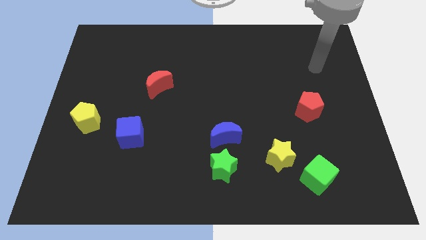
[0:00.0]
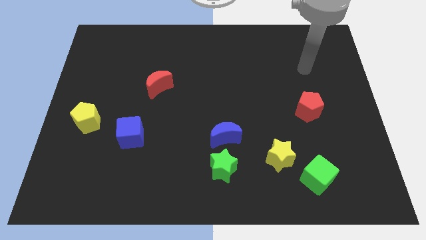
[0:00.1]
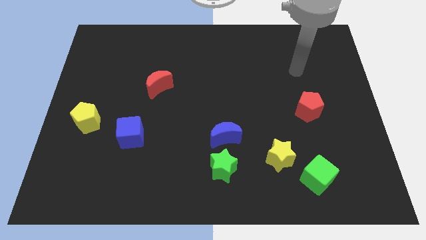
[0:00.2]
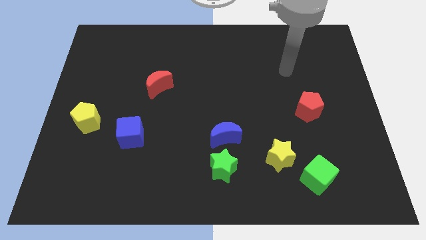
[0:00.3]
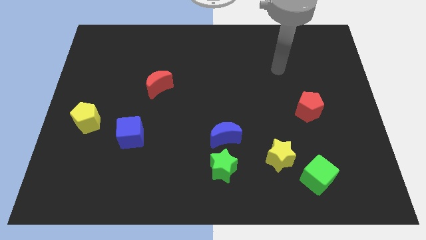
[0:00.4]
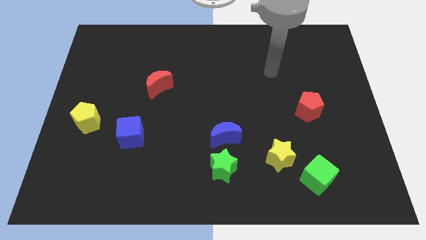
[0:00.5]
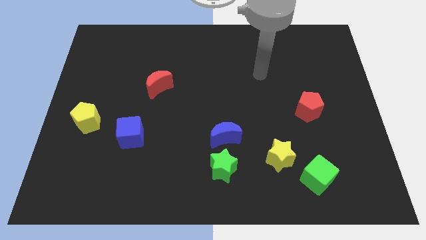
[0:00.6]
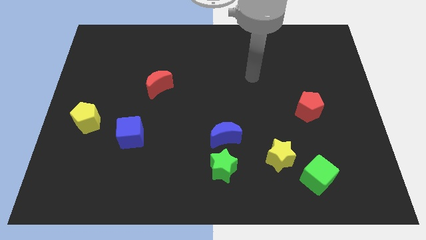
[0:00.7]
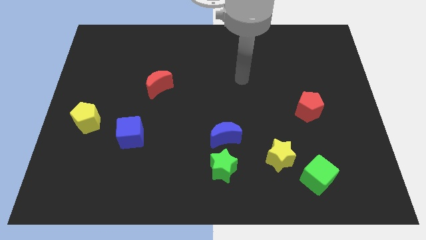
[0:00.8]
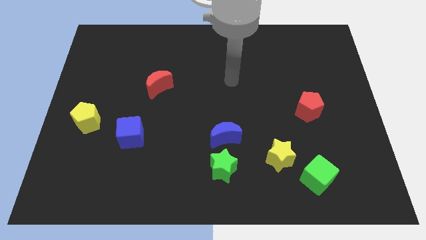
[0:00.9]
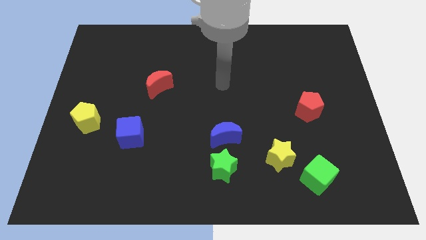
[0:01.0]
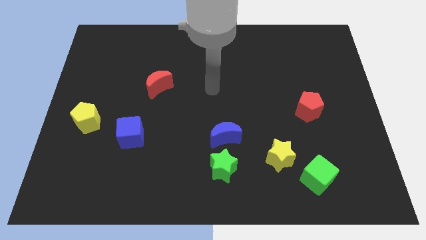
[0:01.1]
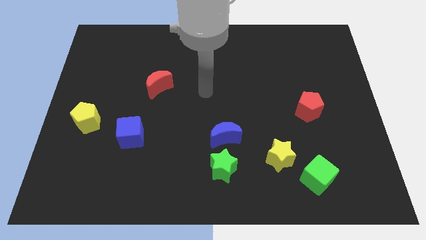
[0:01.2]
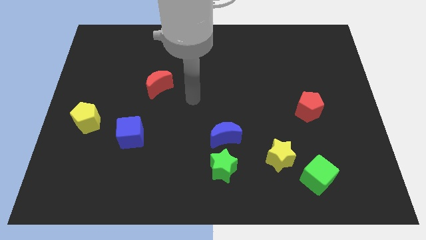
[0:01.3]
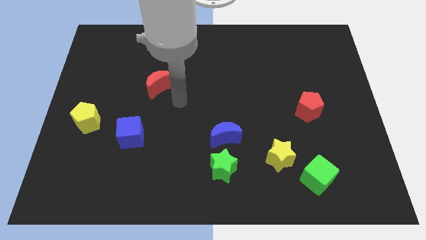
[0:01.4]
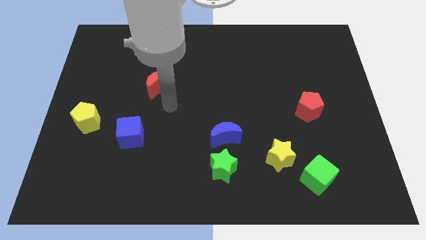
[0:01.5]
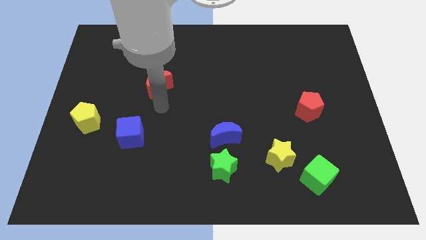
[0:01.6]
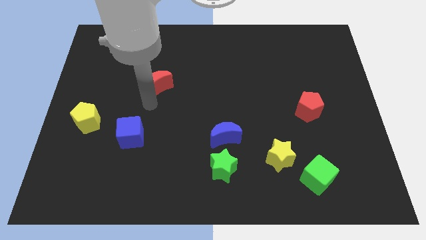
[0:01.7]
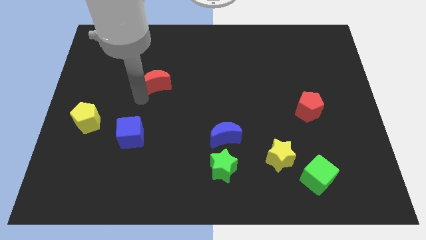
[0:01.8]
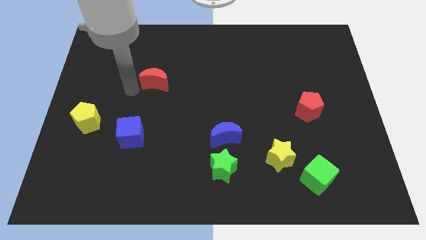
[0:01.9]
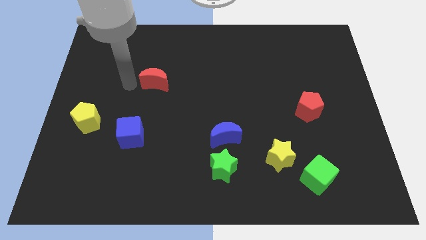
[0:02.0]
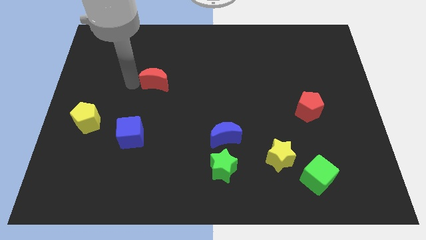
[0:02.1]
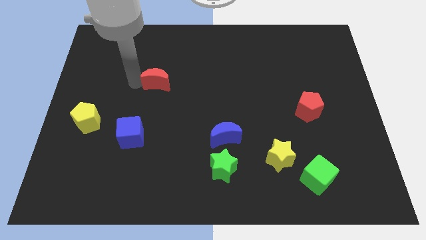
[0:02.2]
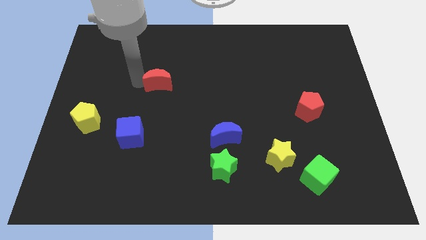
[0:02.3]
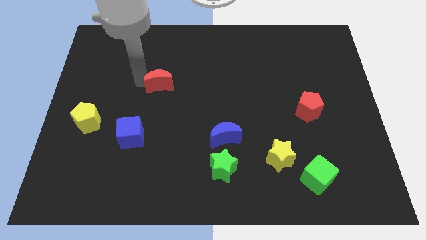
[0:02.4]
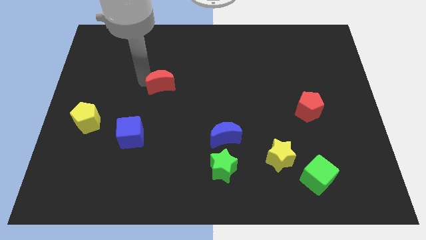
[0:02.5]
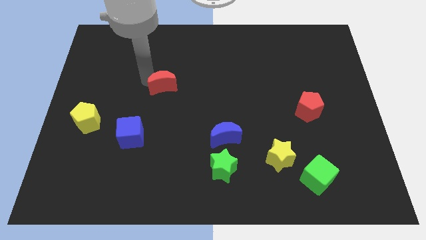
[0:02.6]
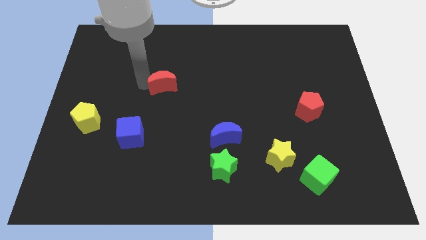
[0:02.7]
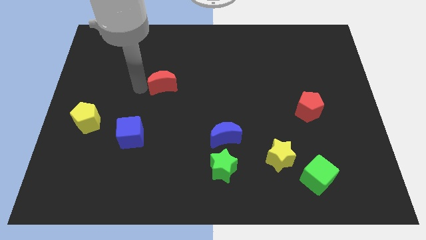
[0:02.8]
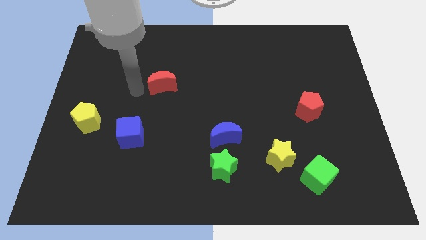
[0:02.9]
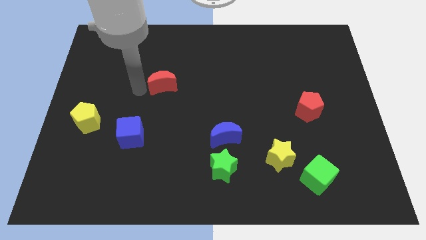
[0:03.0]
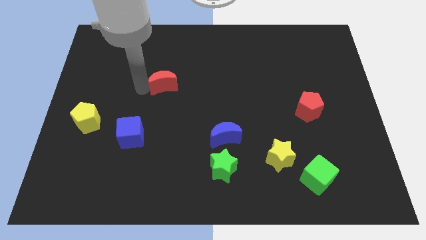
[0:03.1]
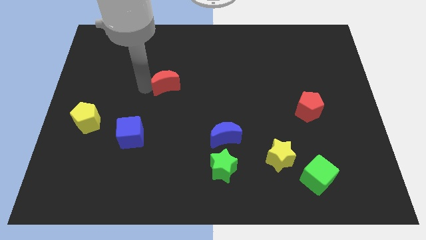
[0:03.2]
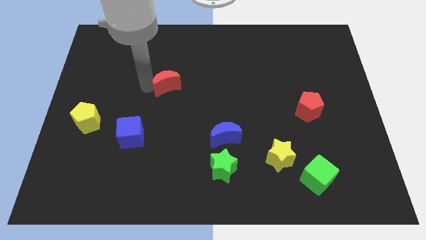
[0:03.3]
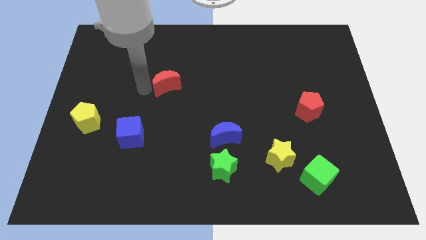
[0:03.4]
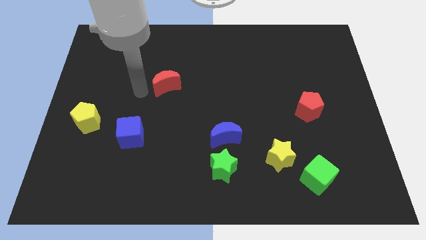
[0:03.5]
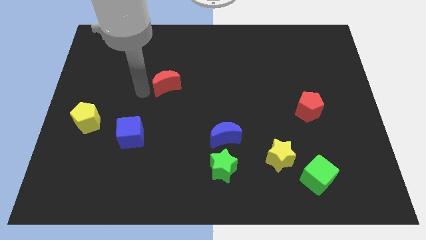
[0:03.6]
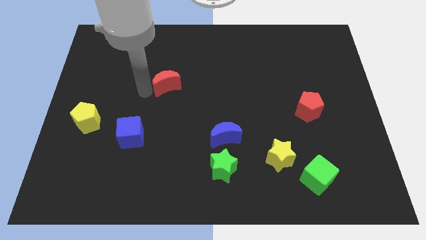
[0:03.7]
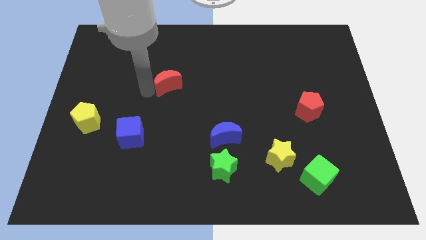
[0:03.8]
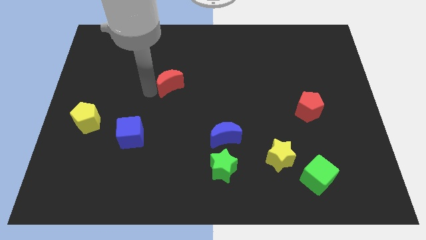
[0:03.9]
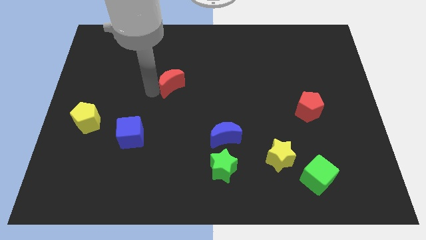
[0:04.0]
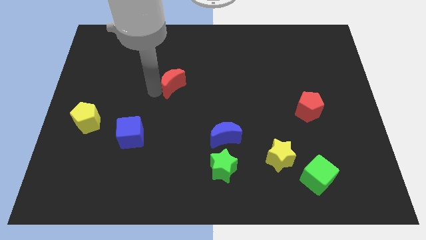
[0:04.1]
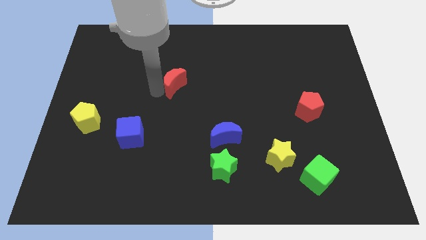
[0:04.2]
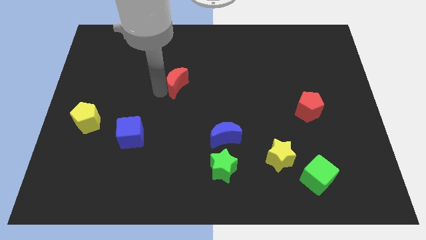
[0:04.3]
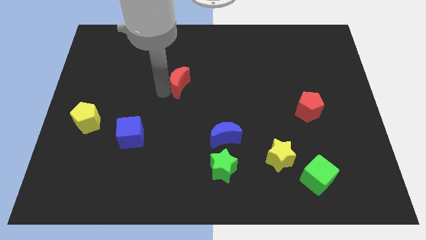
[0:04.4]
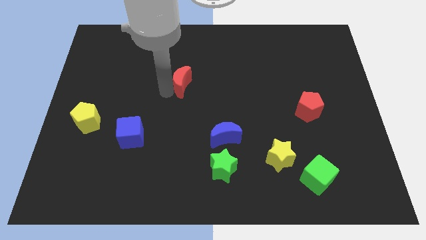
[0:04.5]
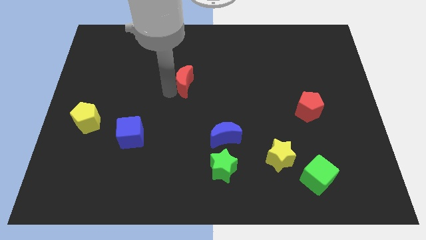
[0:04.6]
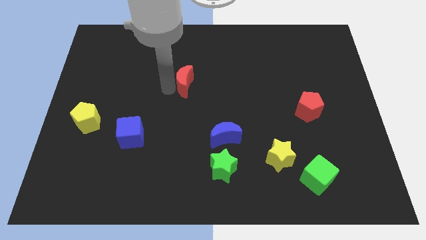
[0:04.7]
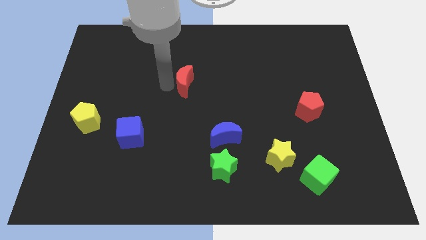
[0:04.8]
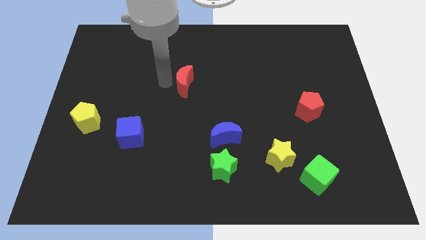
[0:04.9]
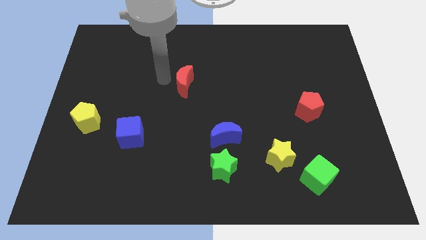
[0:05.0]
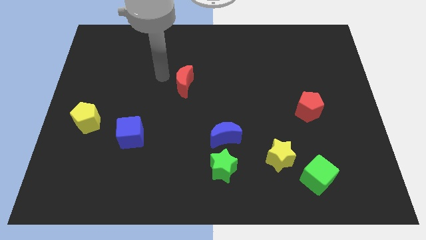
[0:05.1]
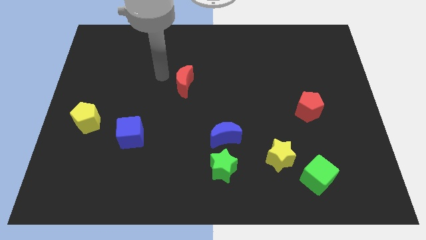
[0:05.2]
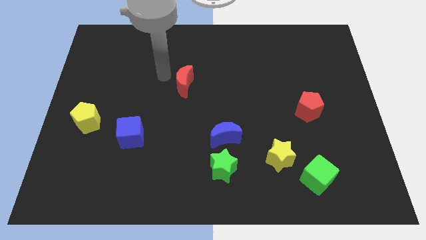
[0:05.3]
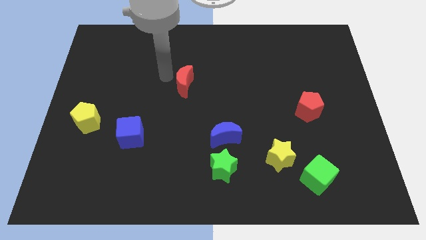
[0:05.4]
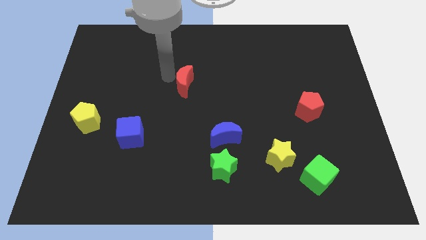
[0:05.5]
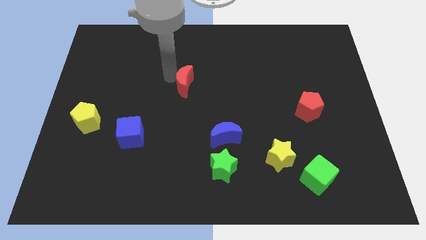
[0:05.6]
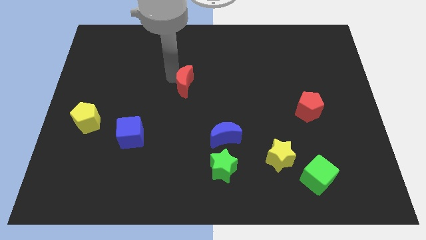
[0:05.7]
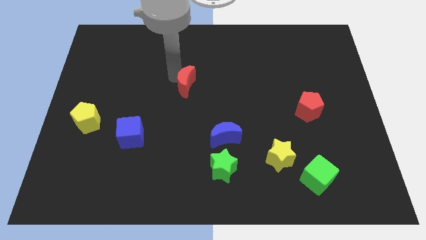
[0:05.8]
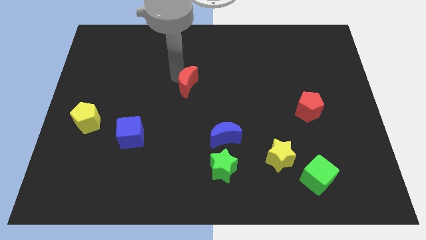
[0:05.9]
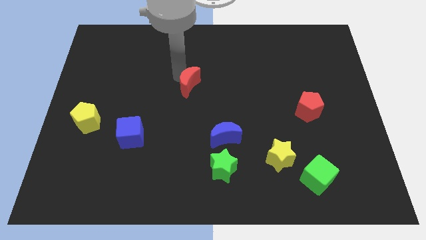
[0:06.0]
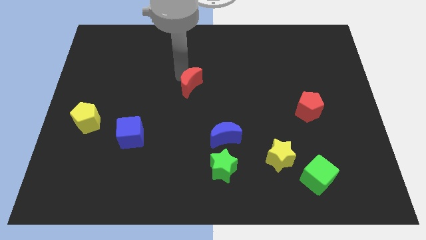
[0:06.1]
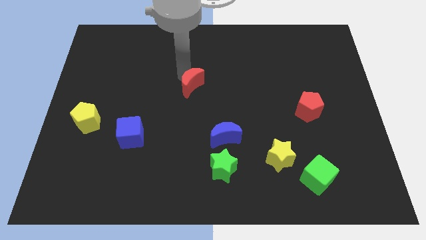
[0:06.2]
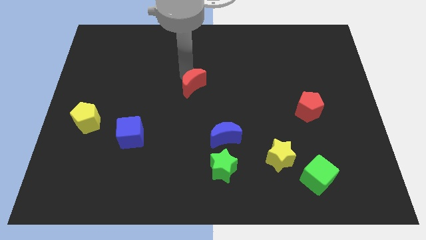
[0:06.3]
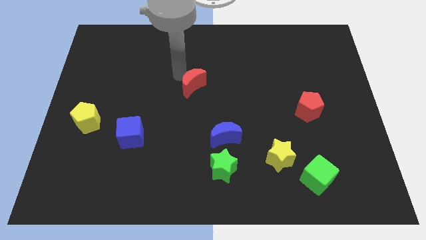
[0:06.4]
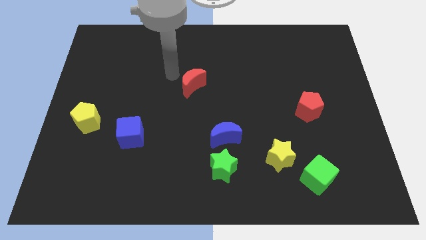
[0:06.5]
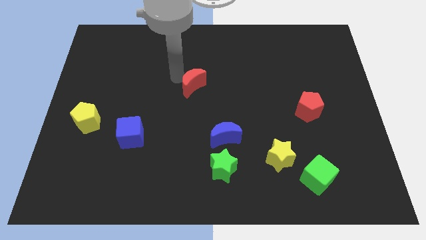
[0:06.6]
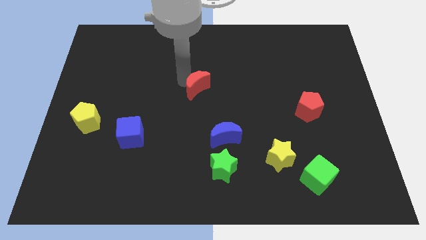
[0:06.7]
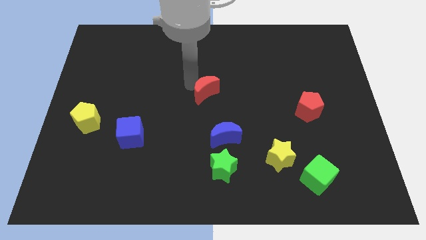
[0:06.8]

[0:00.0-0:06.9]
move the red moon to the top of the blue moon
